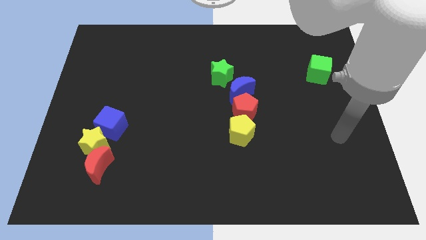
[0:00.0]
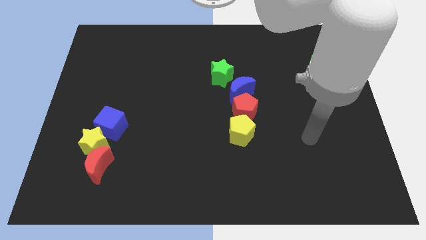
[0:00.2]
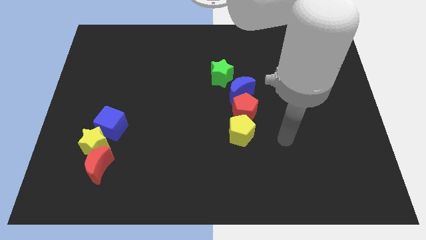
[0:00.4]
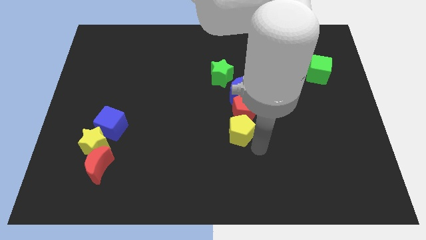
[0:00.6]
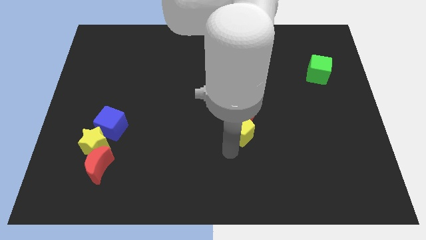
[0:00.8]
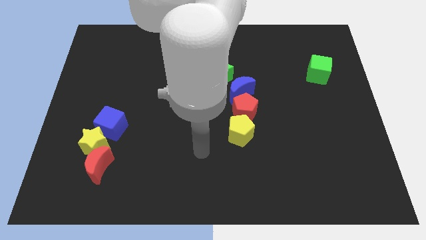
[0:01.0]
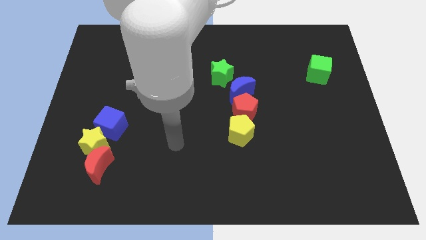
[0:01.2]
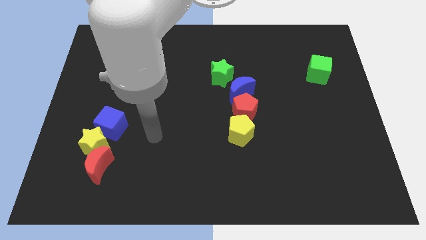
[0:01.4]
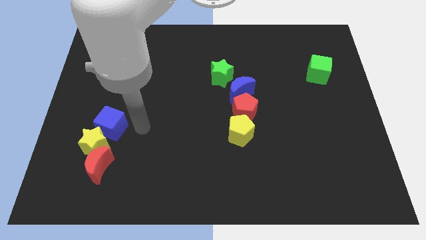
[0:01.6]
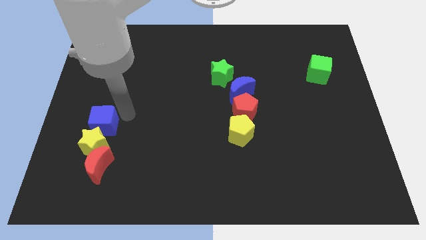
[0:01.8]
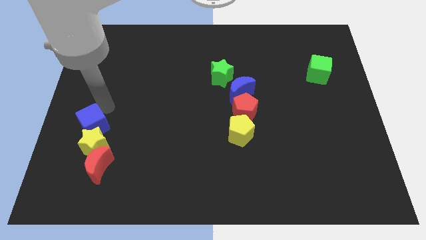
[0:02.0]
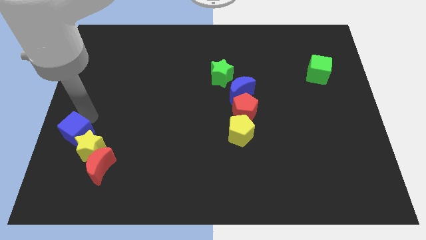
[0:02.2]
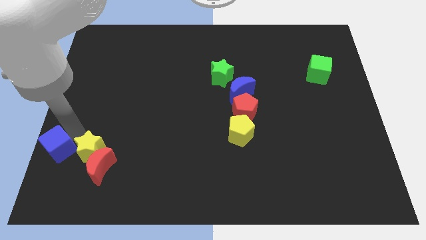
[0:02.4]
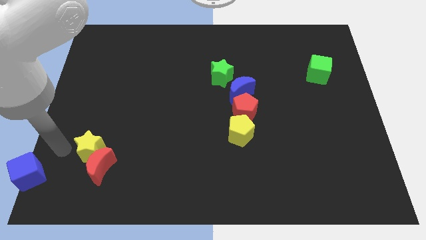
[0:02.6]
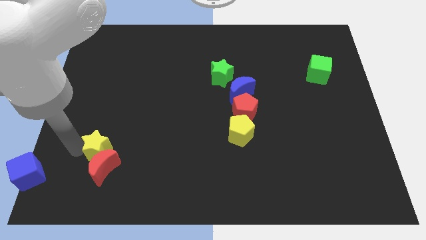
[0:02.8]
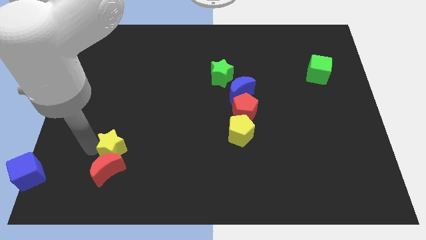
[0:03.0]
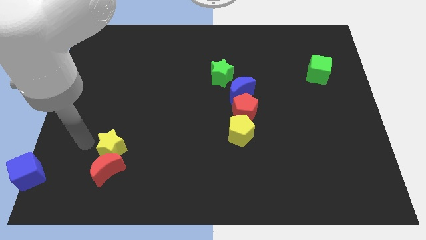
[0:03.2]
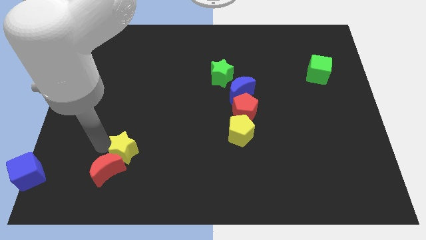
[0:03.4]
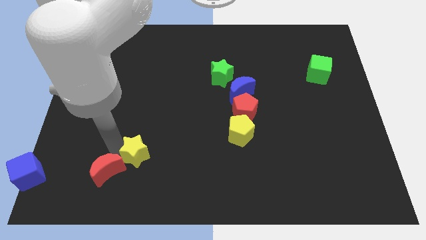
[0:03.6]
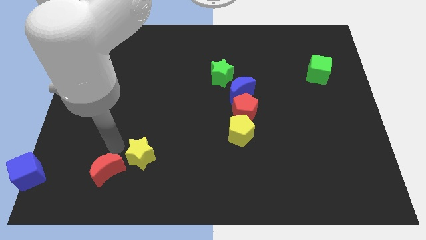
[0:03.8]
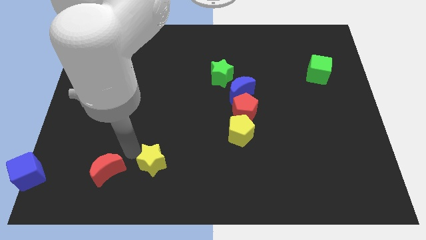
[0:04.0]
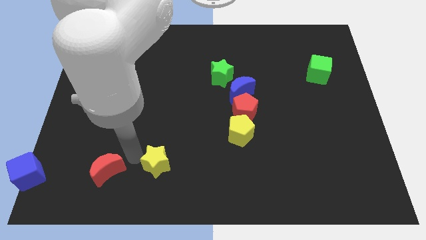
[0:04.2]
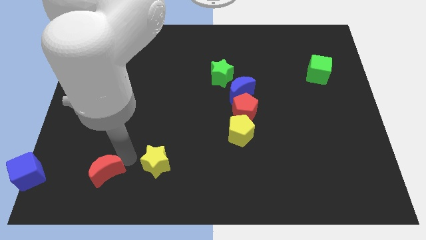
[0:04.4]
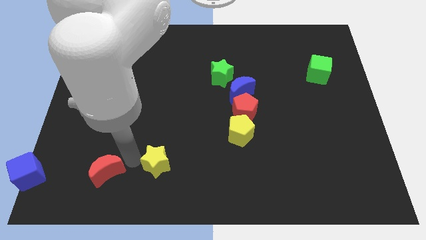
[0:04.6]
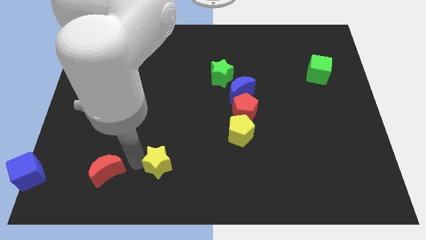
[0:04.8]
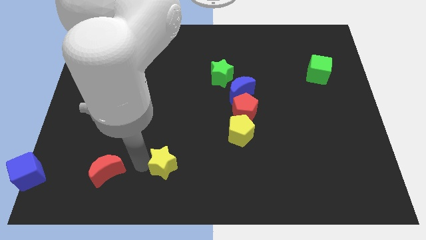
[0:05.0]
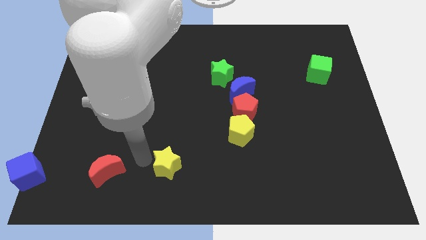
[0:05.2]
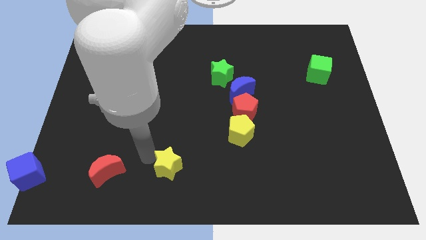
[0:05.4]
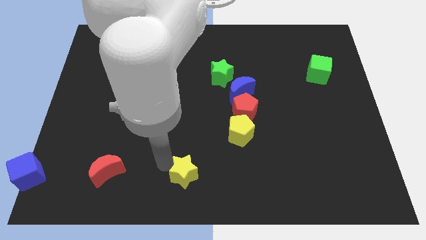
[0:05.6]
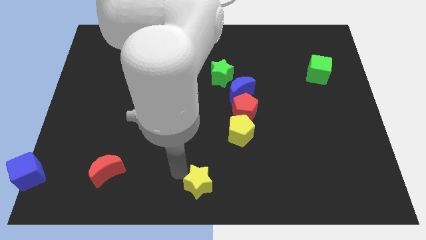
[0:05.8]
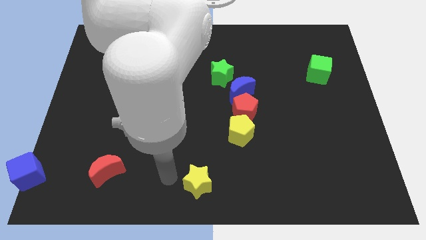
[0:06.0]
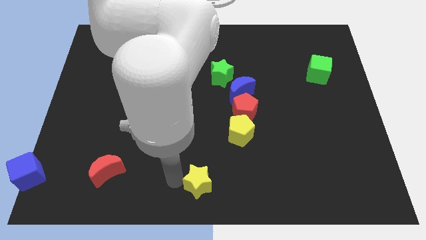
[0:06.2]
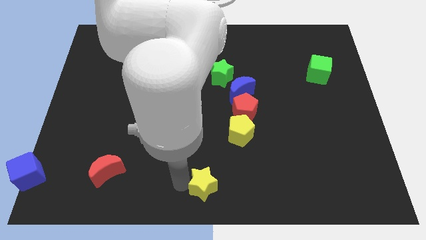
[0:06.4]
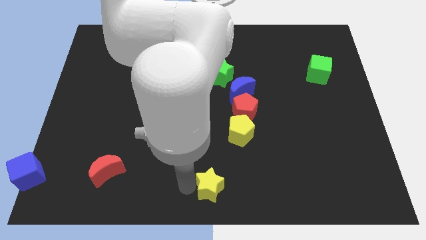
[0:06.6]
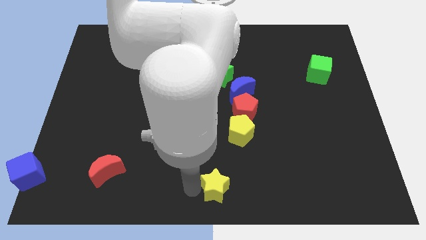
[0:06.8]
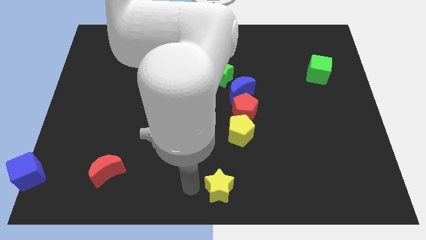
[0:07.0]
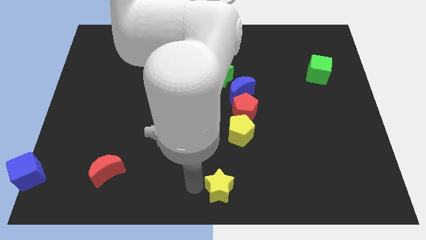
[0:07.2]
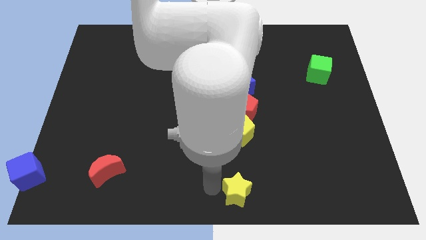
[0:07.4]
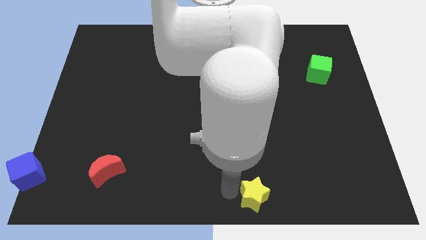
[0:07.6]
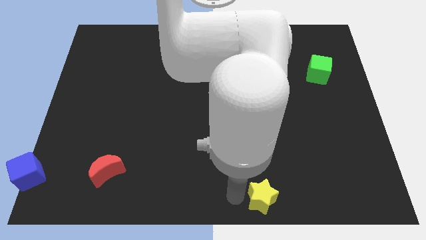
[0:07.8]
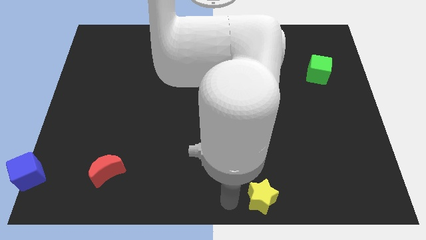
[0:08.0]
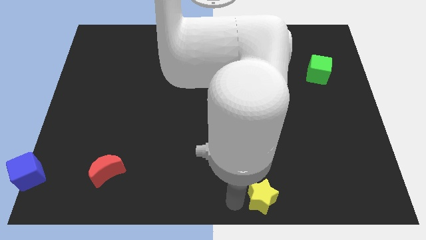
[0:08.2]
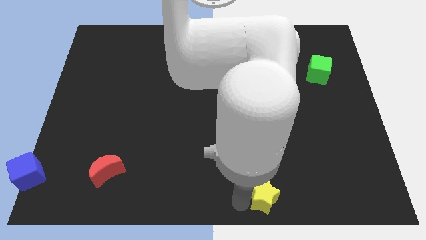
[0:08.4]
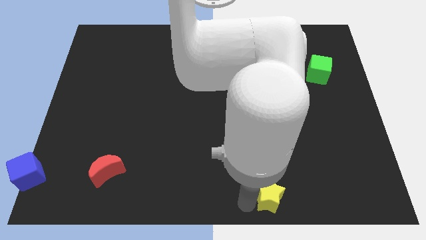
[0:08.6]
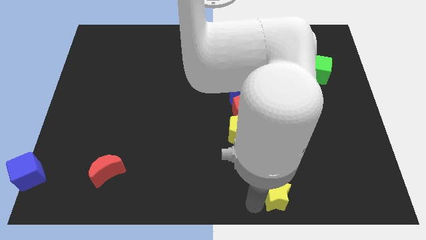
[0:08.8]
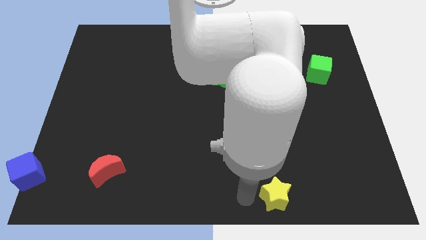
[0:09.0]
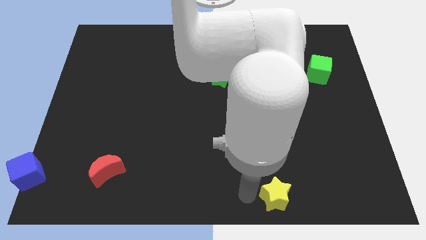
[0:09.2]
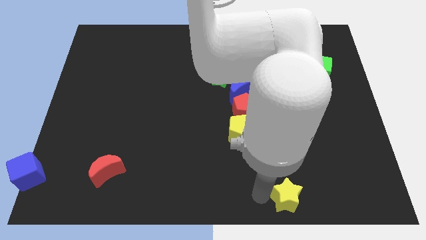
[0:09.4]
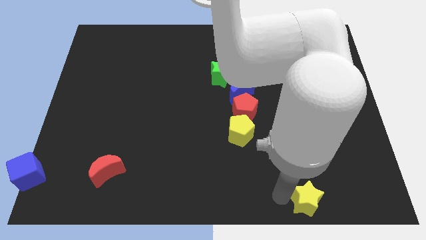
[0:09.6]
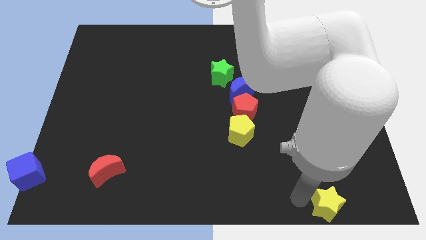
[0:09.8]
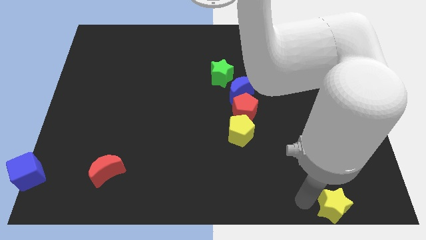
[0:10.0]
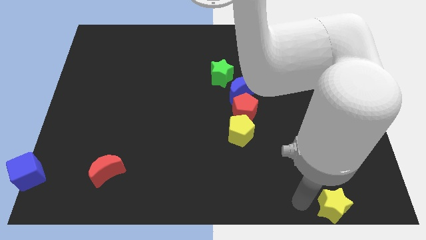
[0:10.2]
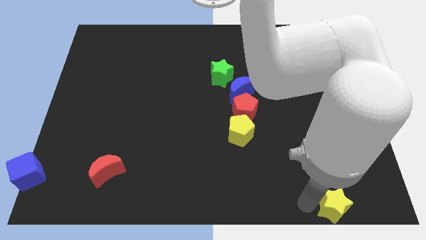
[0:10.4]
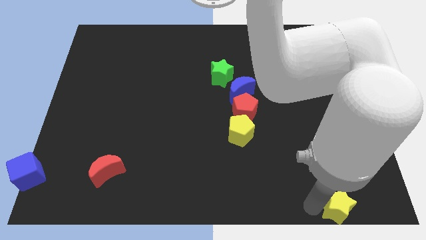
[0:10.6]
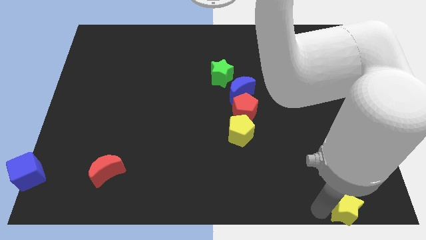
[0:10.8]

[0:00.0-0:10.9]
move the yellow star to the bottom right corner
